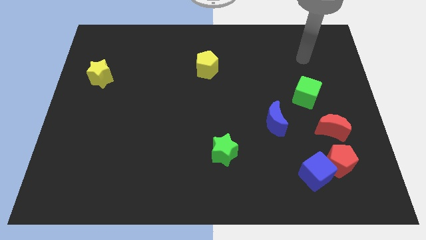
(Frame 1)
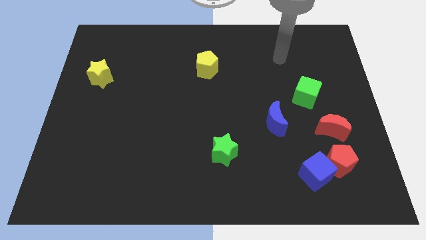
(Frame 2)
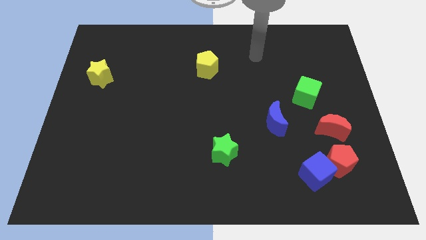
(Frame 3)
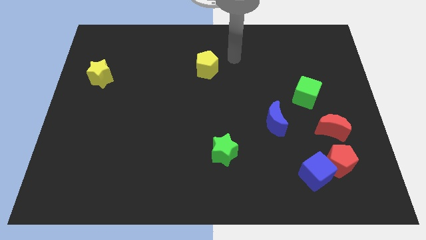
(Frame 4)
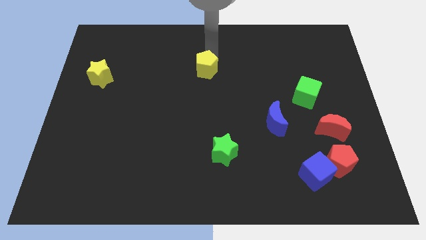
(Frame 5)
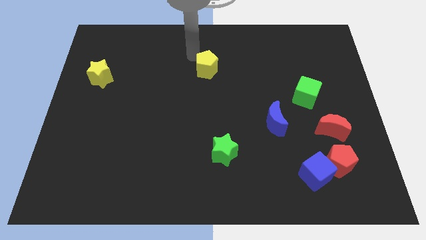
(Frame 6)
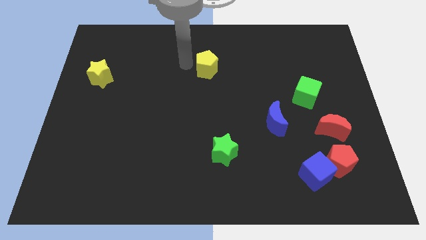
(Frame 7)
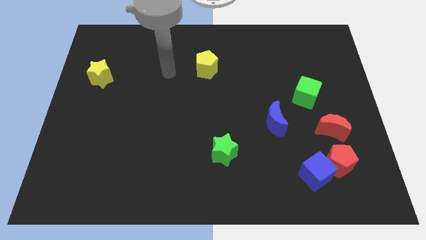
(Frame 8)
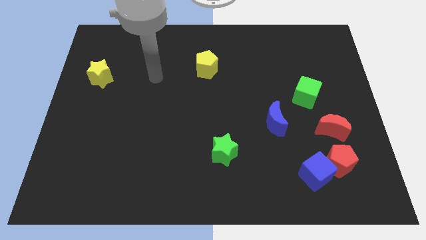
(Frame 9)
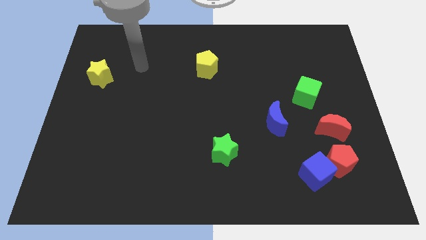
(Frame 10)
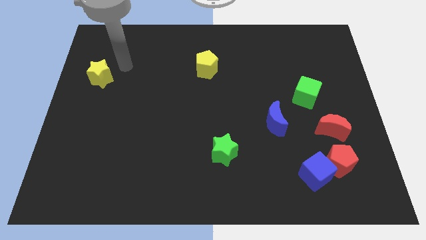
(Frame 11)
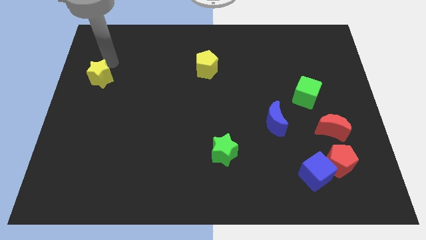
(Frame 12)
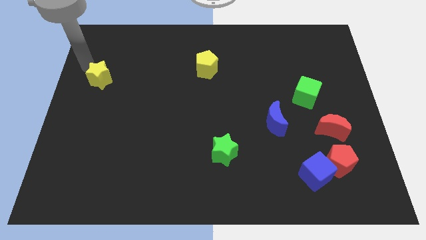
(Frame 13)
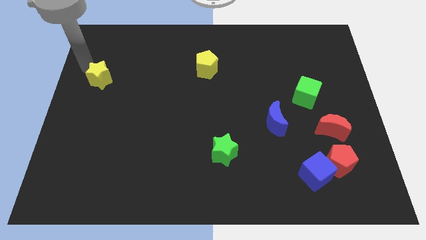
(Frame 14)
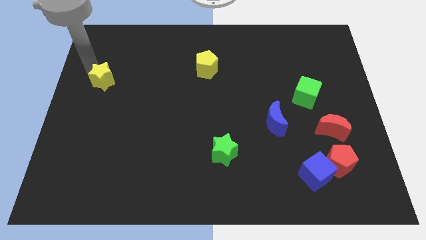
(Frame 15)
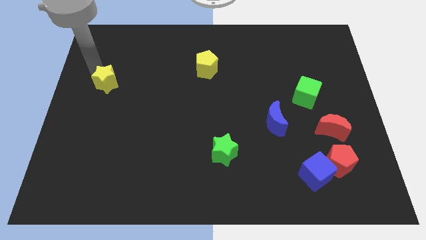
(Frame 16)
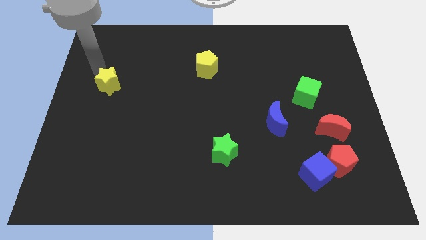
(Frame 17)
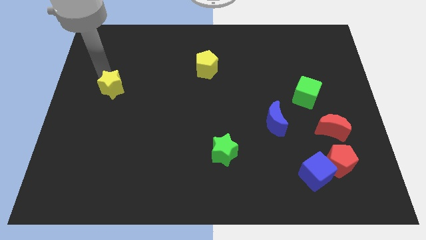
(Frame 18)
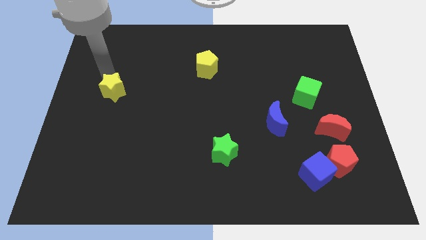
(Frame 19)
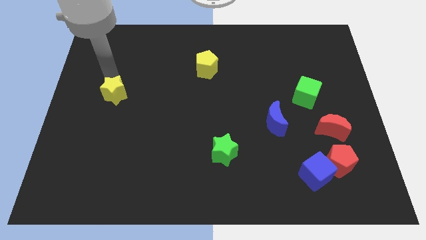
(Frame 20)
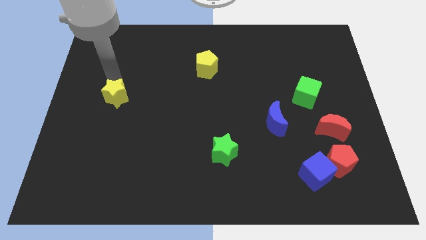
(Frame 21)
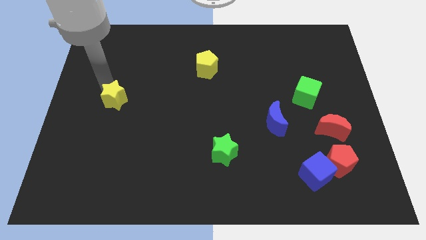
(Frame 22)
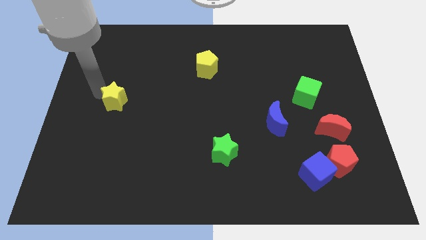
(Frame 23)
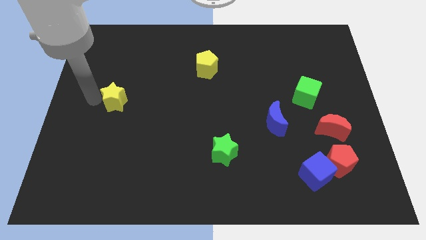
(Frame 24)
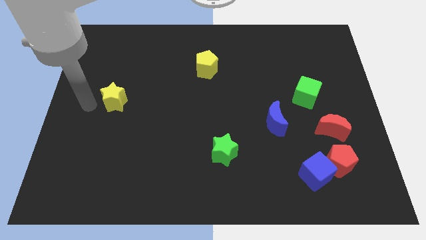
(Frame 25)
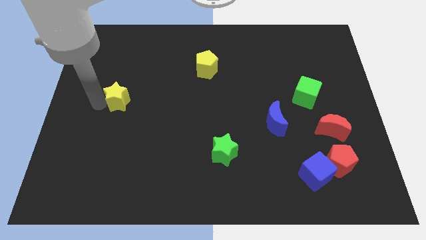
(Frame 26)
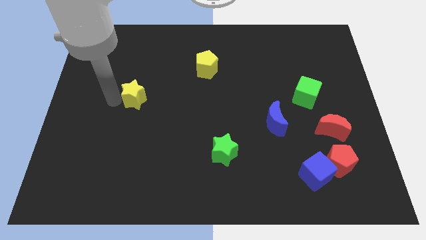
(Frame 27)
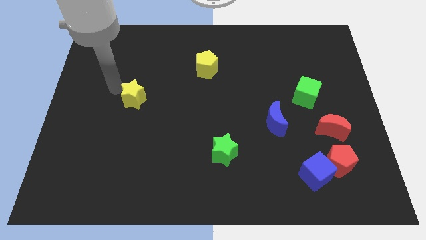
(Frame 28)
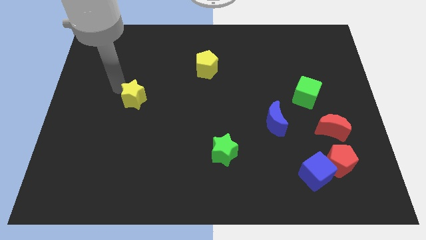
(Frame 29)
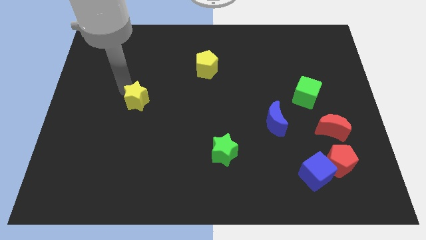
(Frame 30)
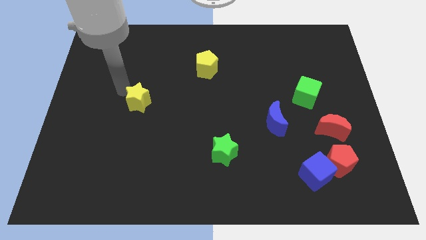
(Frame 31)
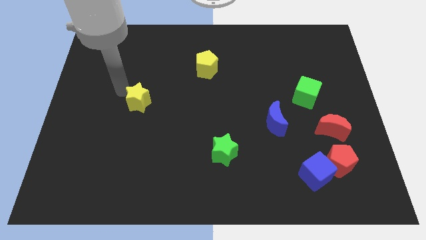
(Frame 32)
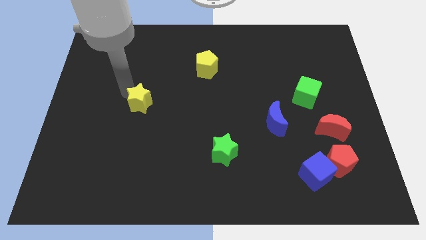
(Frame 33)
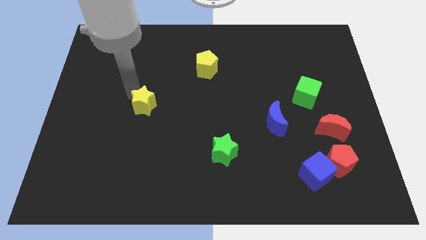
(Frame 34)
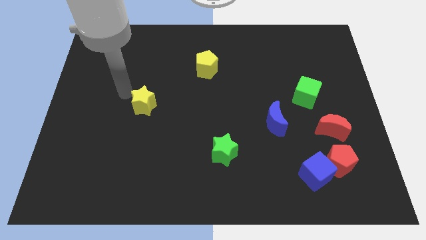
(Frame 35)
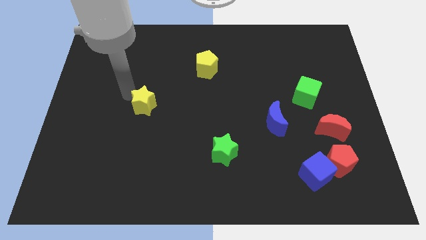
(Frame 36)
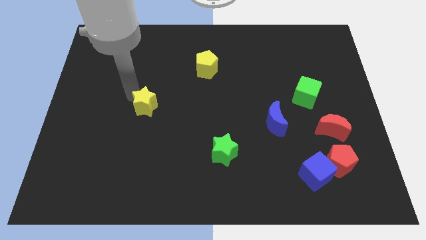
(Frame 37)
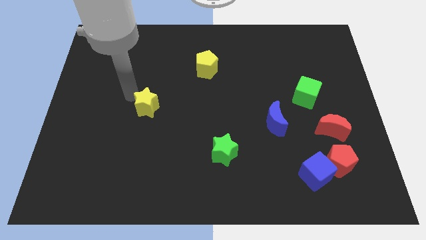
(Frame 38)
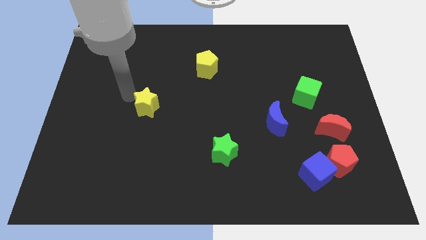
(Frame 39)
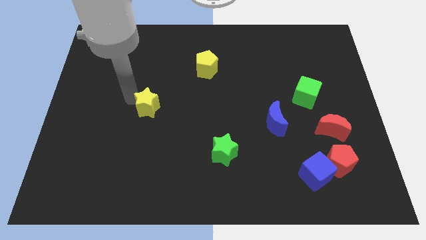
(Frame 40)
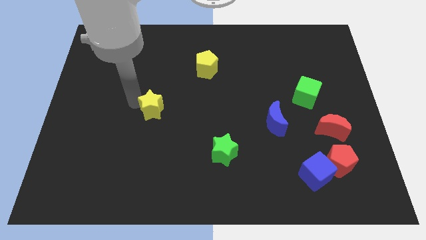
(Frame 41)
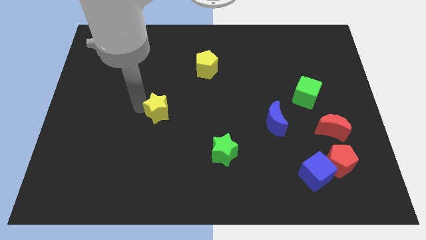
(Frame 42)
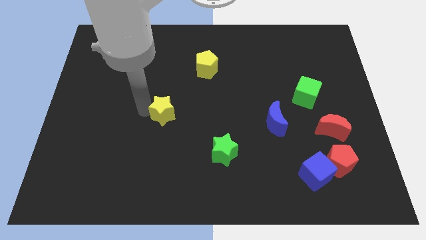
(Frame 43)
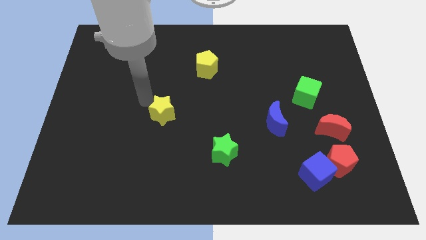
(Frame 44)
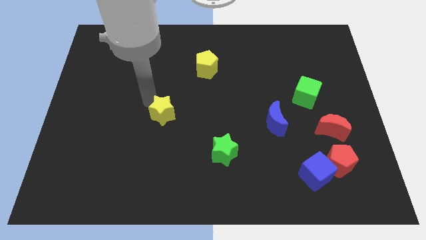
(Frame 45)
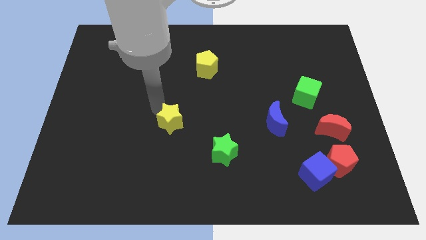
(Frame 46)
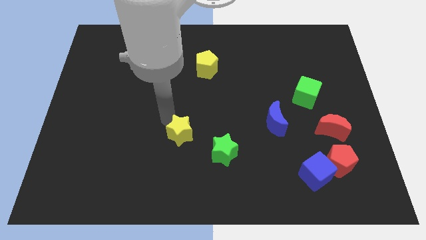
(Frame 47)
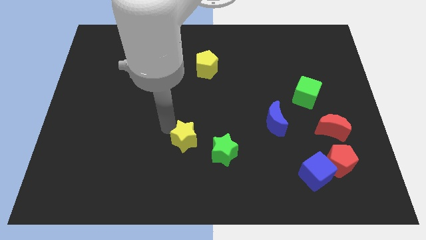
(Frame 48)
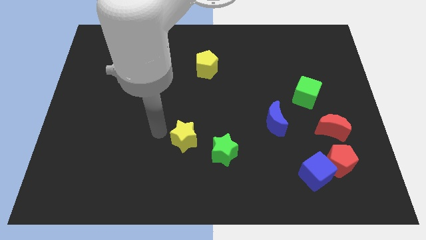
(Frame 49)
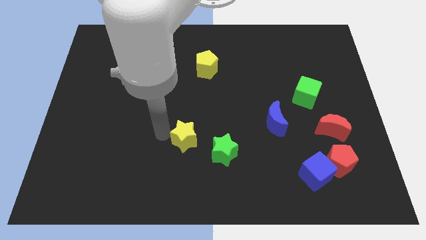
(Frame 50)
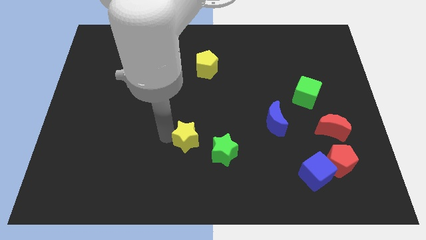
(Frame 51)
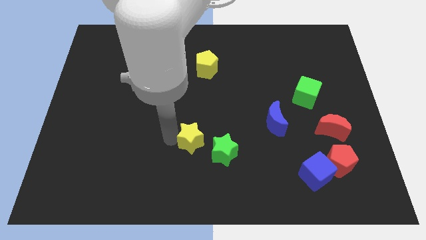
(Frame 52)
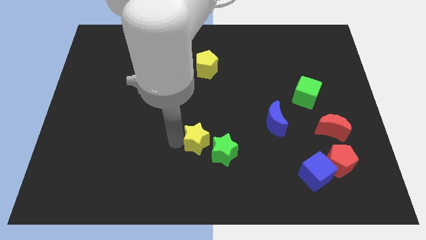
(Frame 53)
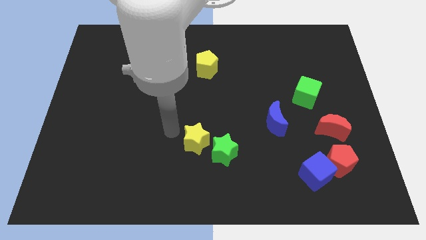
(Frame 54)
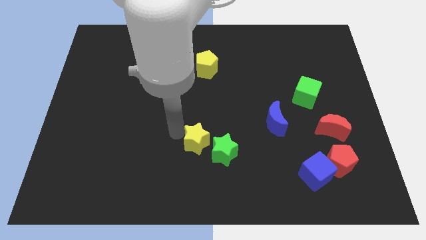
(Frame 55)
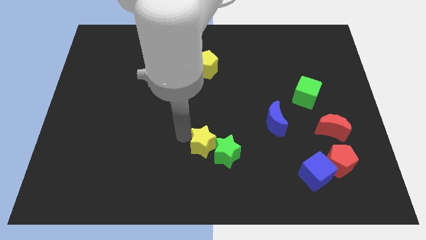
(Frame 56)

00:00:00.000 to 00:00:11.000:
move the yellow star towards the green star

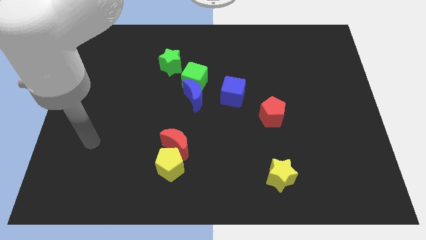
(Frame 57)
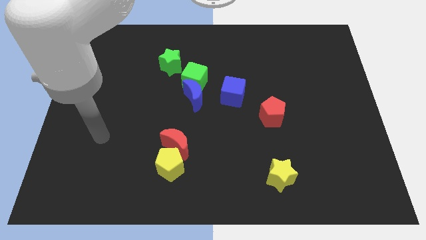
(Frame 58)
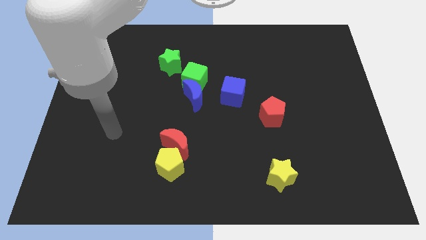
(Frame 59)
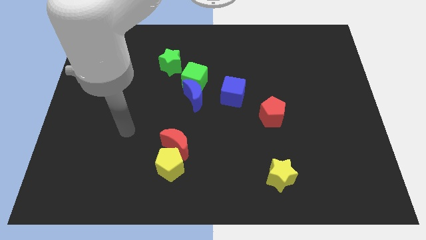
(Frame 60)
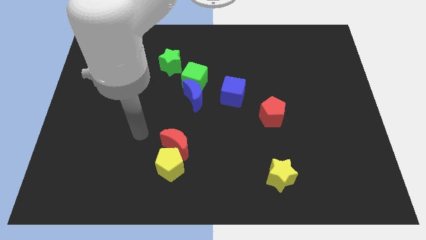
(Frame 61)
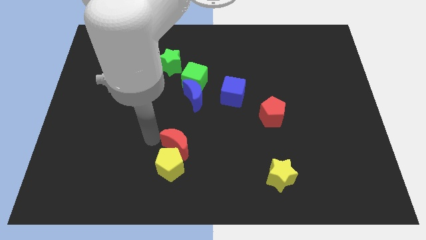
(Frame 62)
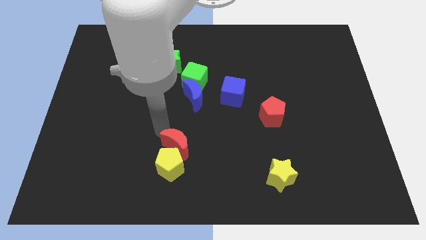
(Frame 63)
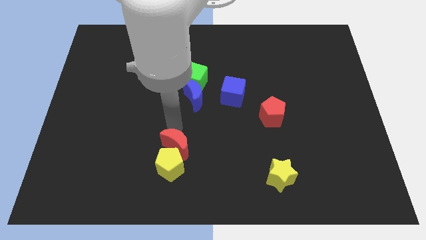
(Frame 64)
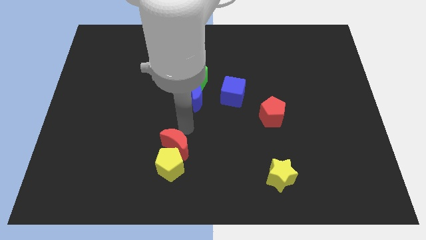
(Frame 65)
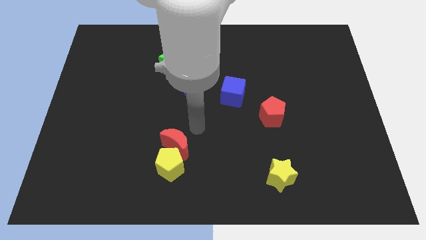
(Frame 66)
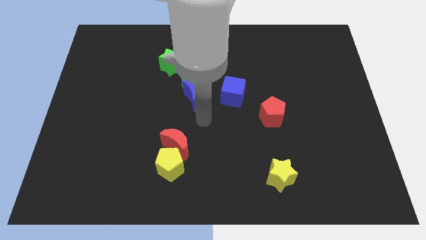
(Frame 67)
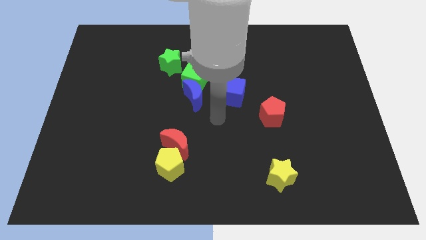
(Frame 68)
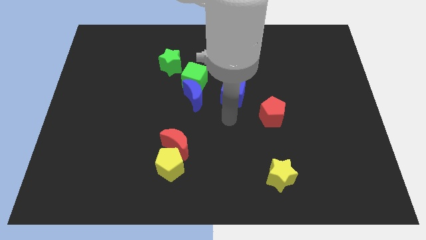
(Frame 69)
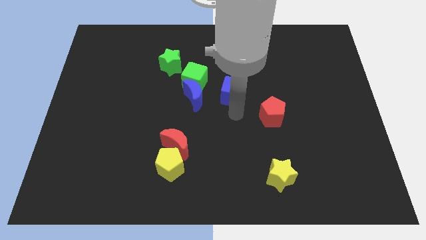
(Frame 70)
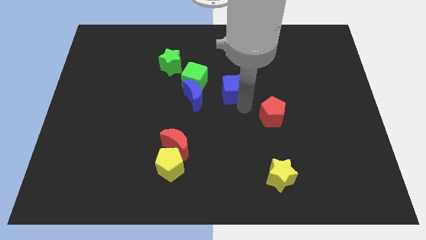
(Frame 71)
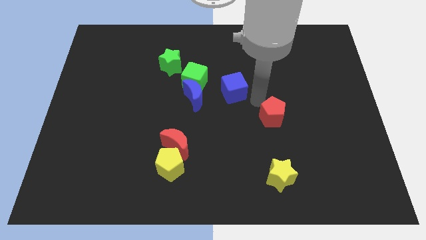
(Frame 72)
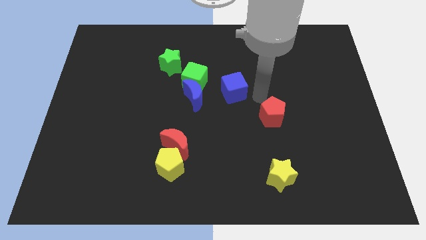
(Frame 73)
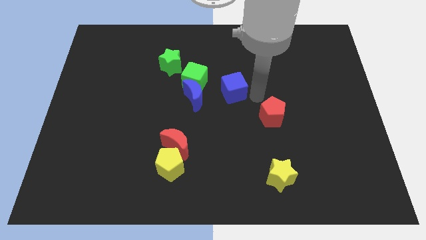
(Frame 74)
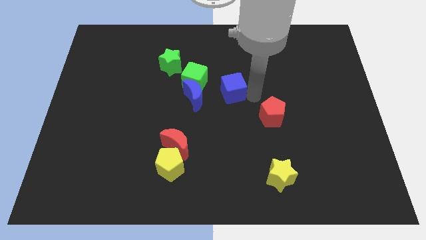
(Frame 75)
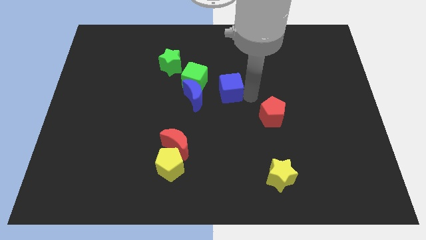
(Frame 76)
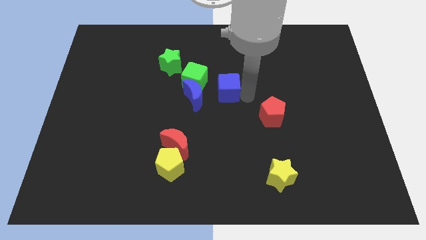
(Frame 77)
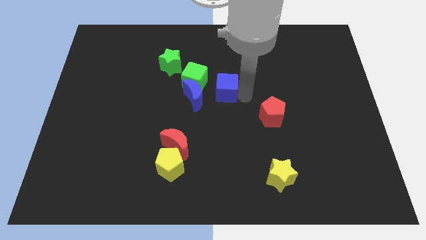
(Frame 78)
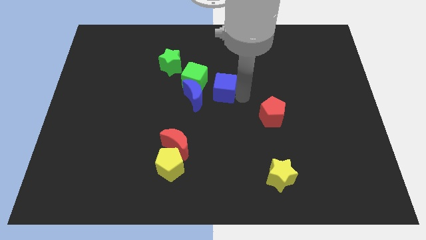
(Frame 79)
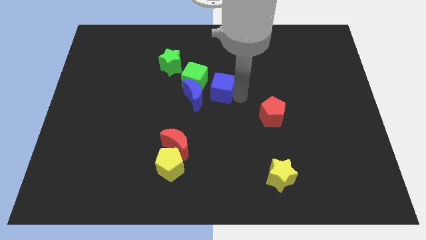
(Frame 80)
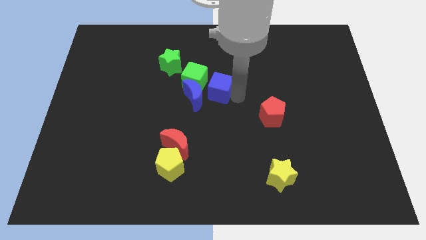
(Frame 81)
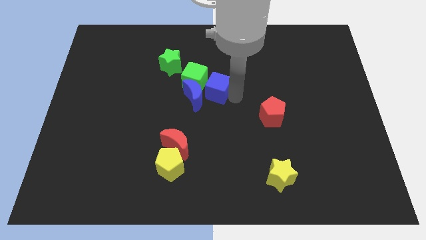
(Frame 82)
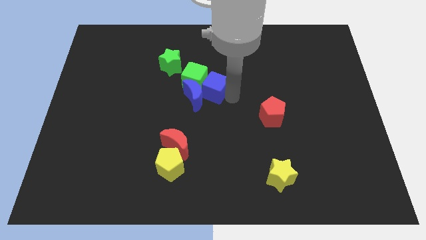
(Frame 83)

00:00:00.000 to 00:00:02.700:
put the blue cube towards the green cube
